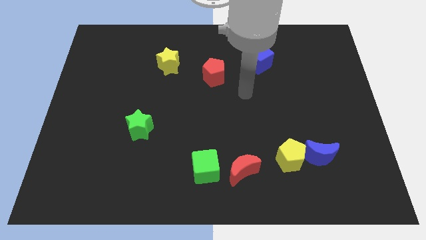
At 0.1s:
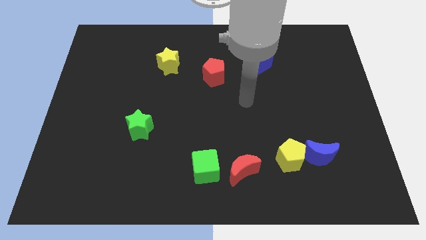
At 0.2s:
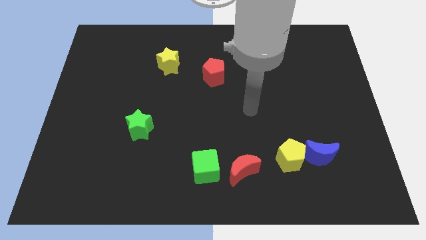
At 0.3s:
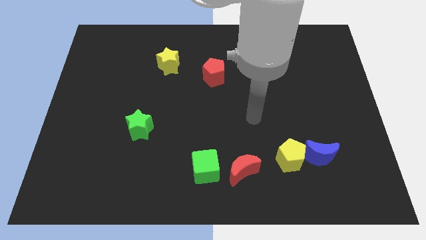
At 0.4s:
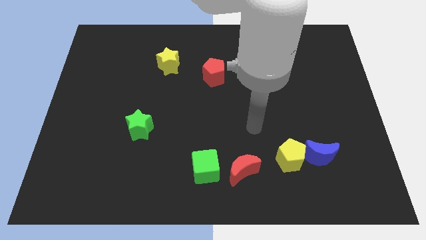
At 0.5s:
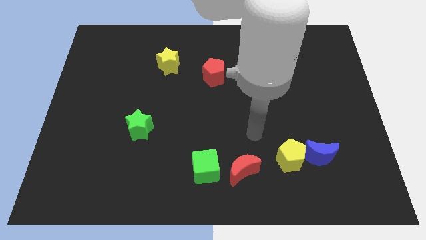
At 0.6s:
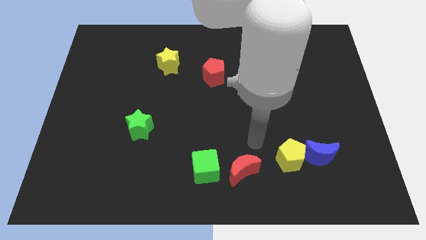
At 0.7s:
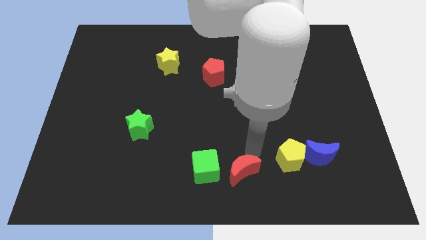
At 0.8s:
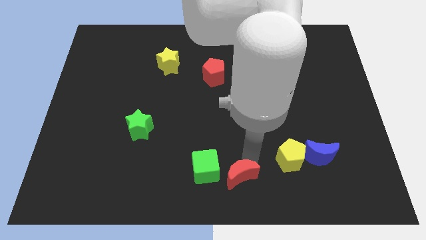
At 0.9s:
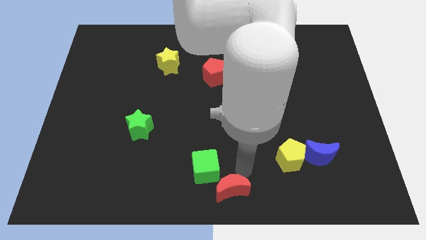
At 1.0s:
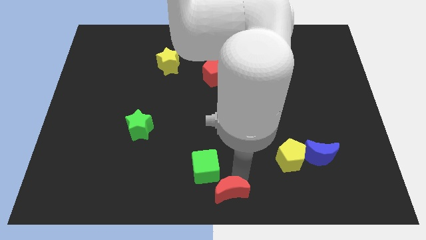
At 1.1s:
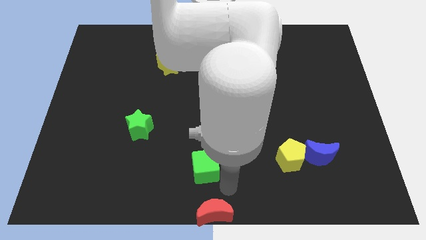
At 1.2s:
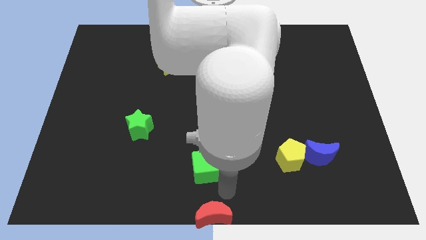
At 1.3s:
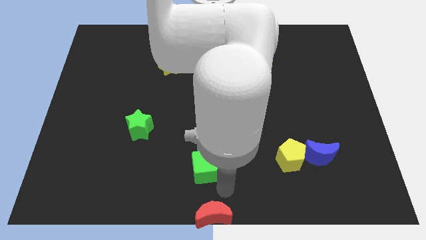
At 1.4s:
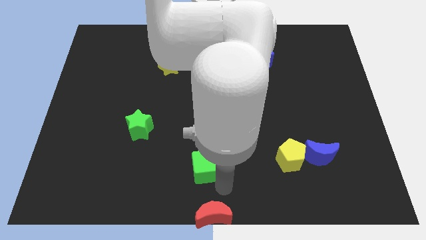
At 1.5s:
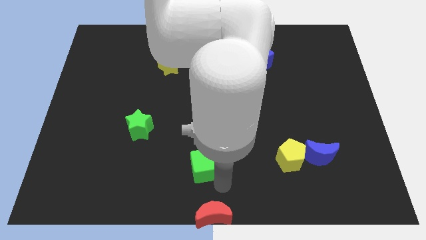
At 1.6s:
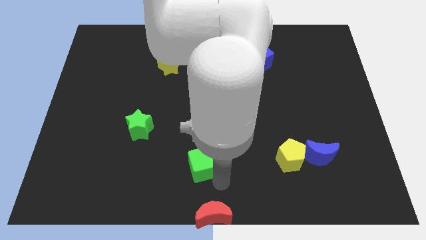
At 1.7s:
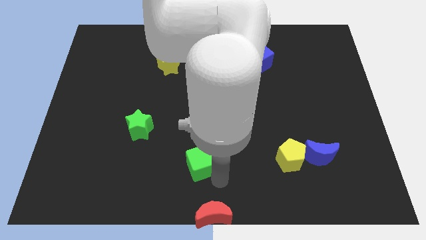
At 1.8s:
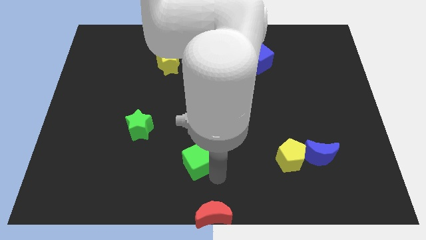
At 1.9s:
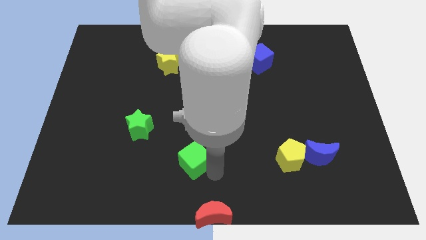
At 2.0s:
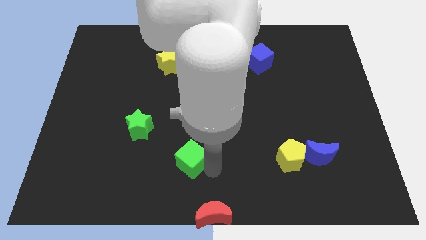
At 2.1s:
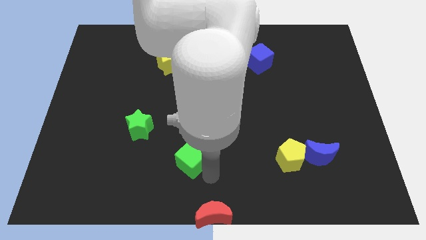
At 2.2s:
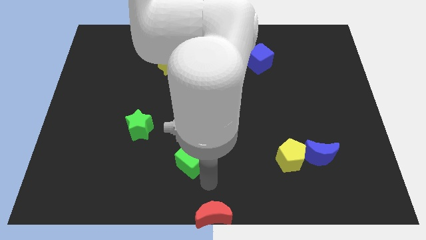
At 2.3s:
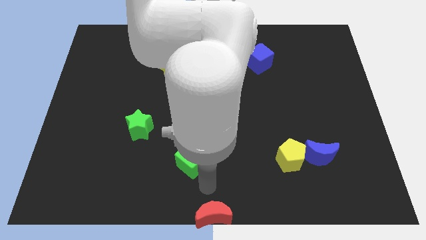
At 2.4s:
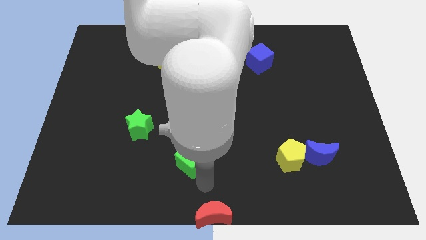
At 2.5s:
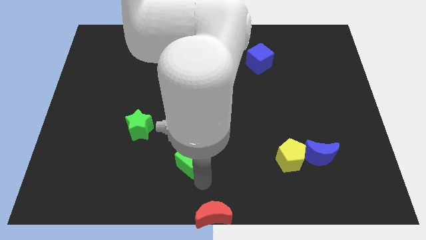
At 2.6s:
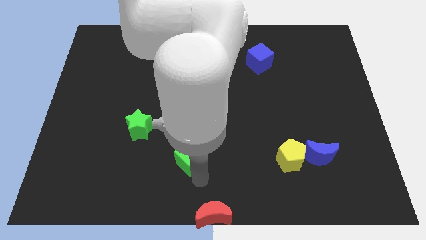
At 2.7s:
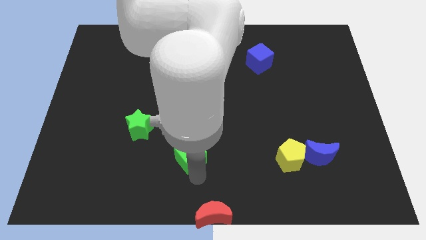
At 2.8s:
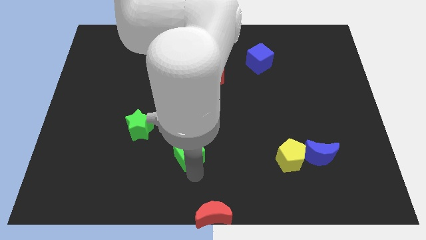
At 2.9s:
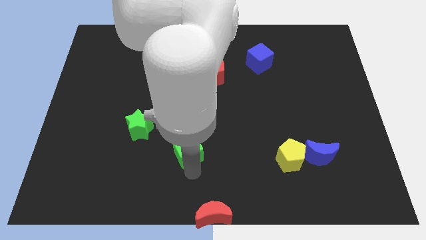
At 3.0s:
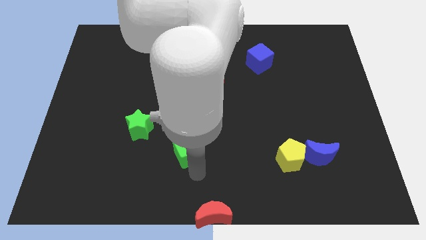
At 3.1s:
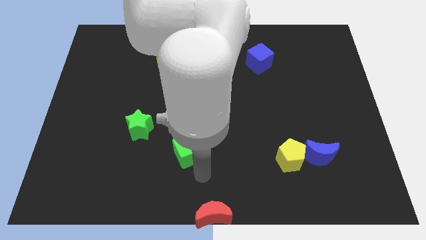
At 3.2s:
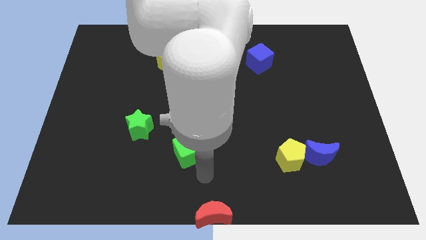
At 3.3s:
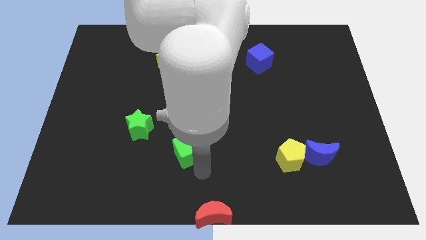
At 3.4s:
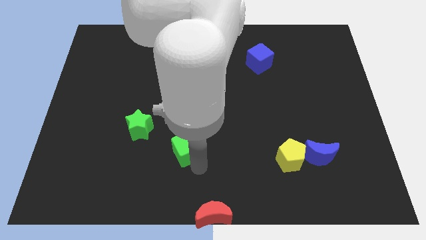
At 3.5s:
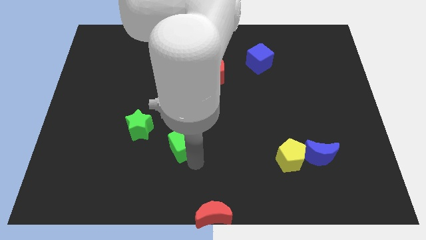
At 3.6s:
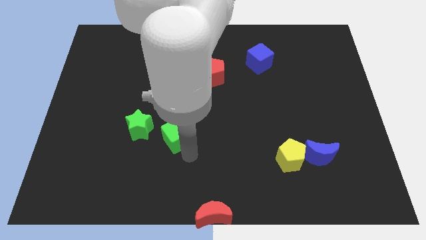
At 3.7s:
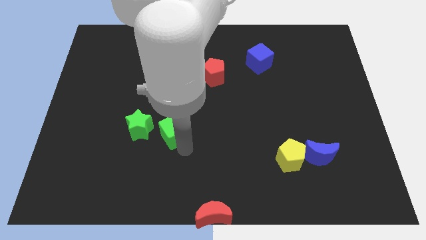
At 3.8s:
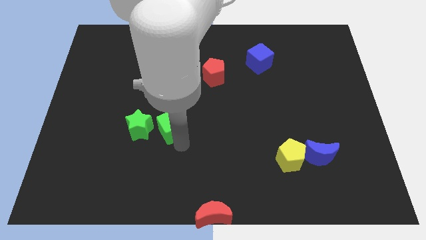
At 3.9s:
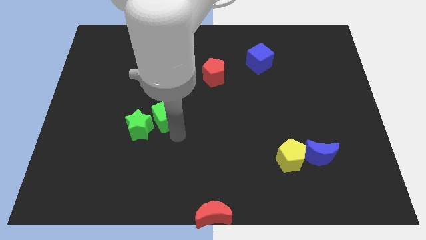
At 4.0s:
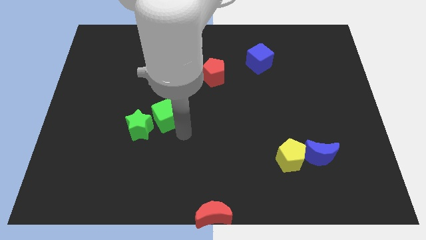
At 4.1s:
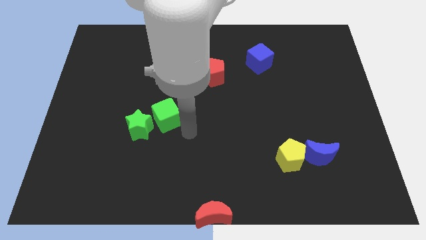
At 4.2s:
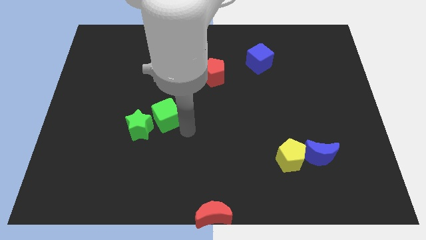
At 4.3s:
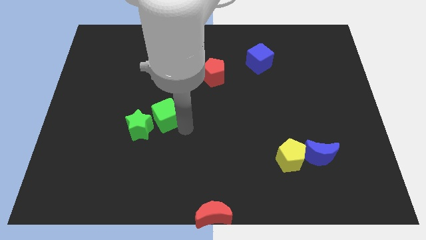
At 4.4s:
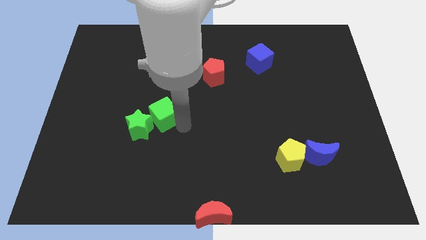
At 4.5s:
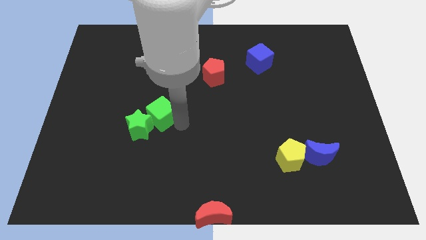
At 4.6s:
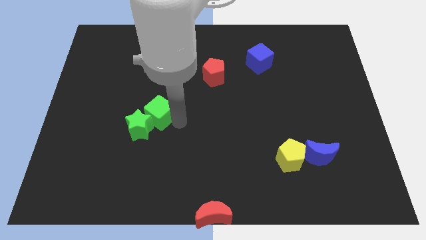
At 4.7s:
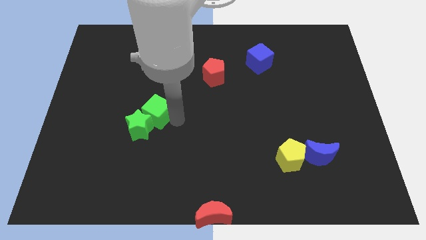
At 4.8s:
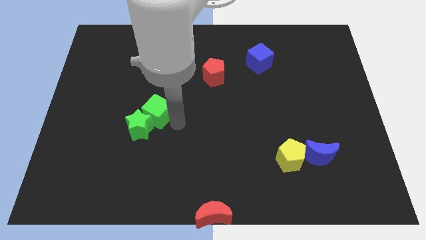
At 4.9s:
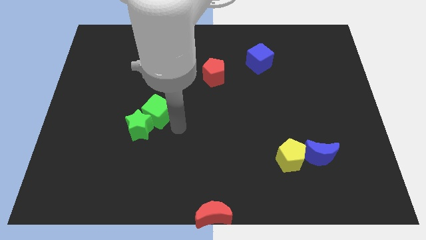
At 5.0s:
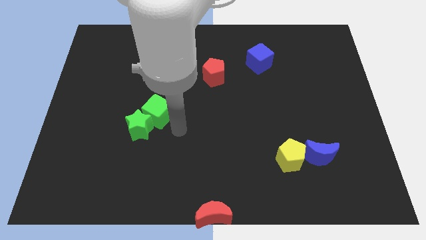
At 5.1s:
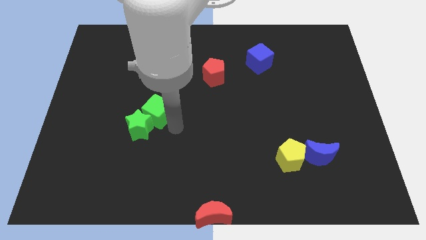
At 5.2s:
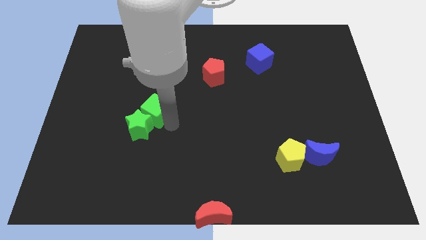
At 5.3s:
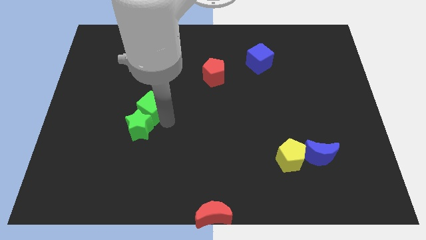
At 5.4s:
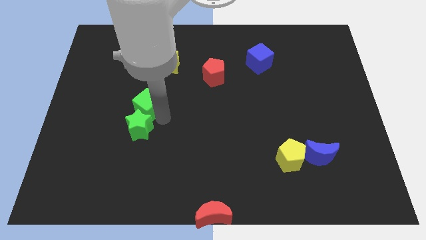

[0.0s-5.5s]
push the green cube up and then left

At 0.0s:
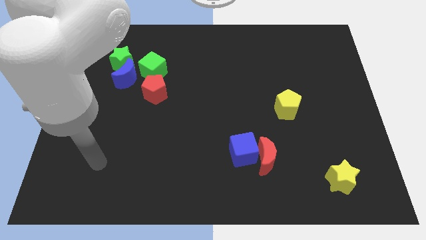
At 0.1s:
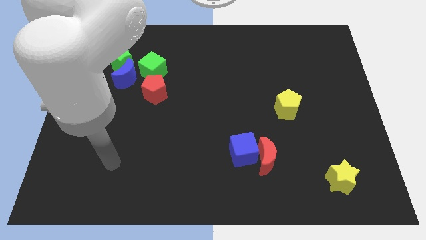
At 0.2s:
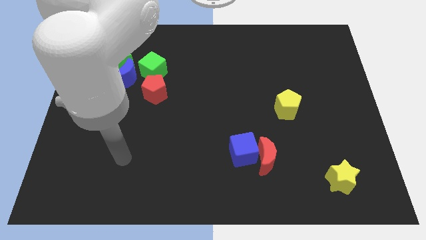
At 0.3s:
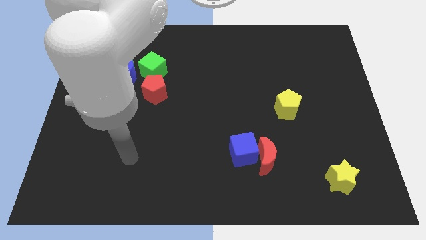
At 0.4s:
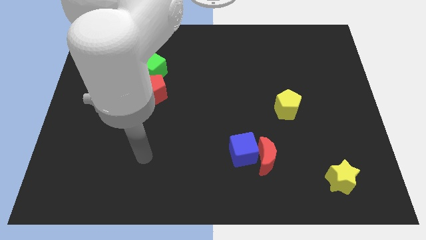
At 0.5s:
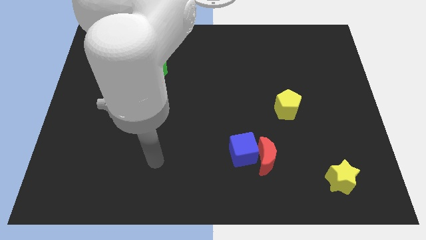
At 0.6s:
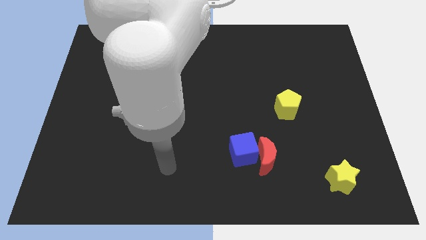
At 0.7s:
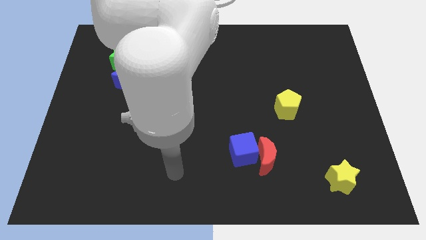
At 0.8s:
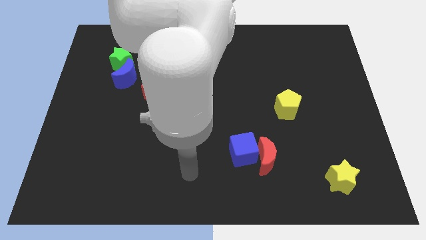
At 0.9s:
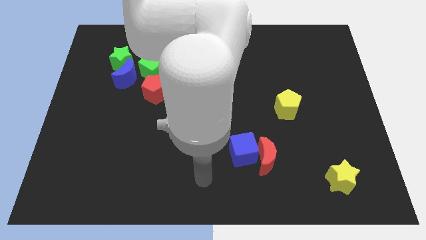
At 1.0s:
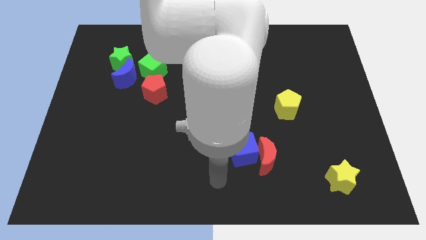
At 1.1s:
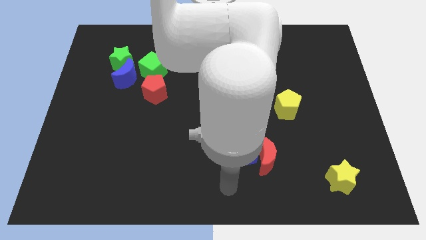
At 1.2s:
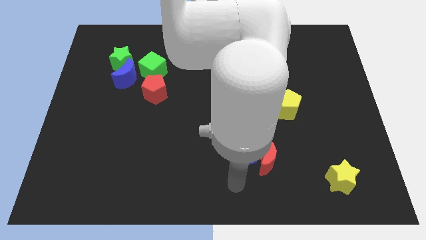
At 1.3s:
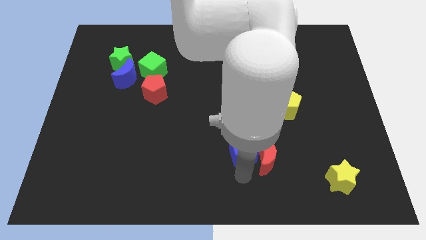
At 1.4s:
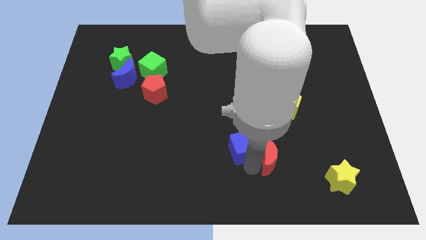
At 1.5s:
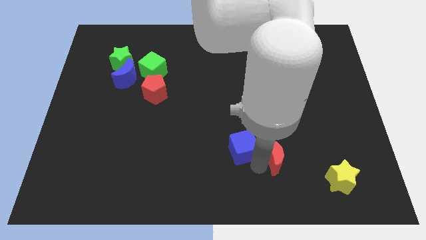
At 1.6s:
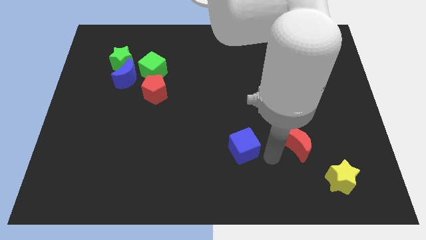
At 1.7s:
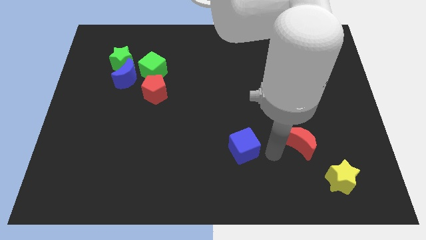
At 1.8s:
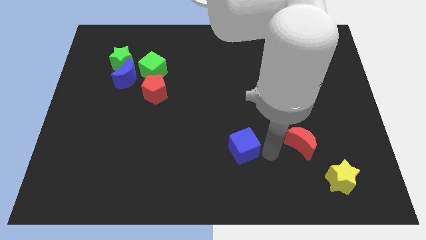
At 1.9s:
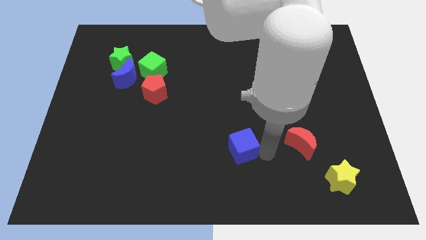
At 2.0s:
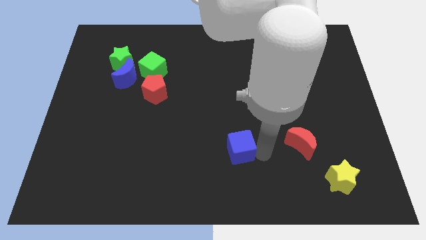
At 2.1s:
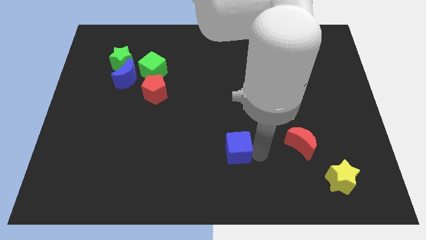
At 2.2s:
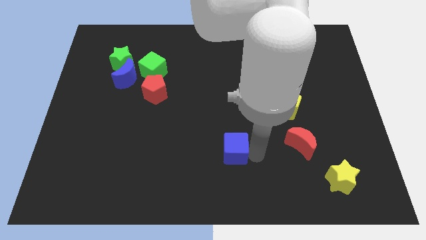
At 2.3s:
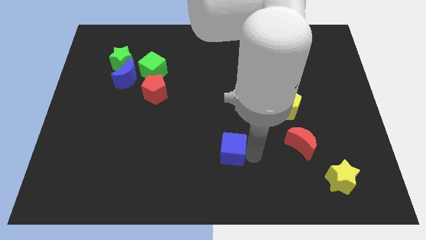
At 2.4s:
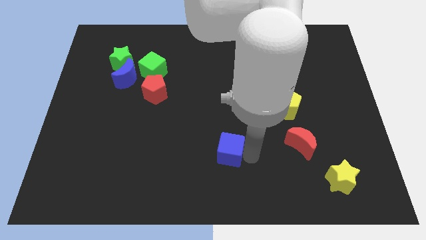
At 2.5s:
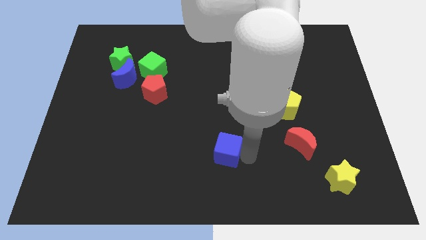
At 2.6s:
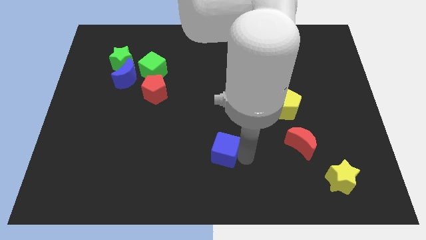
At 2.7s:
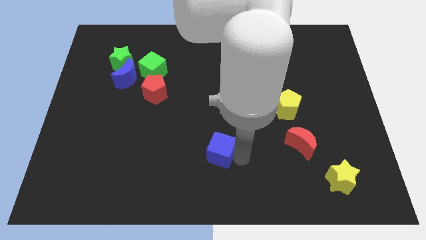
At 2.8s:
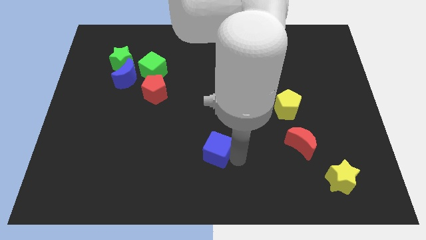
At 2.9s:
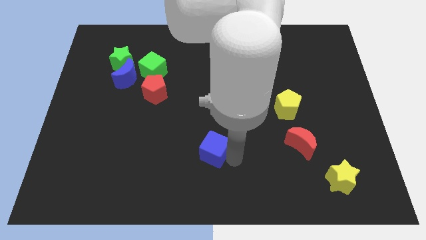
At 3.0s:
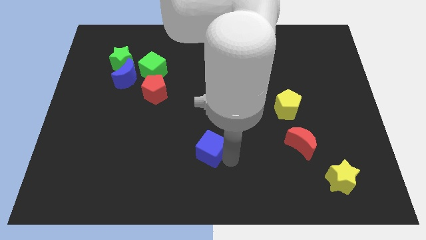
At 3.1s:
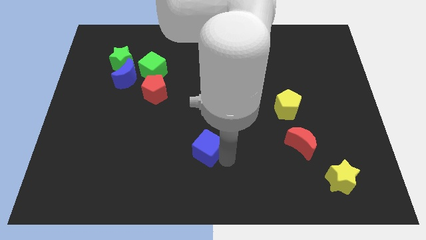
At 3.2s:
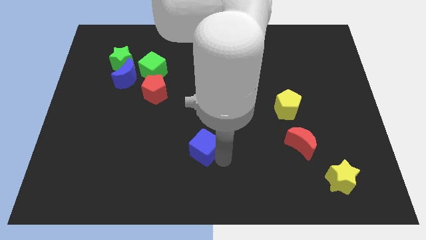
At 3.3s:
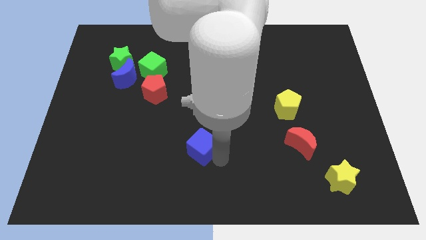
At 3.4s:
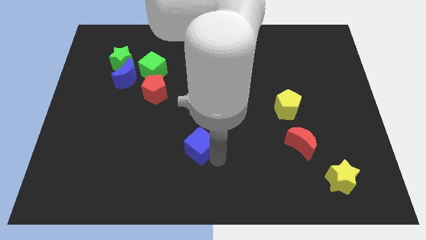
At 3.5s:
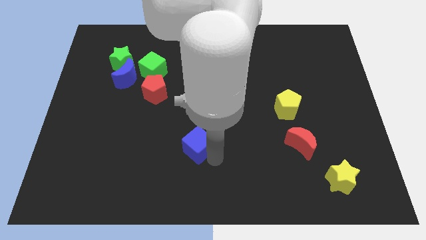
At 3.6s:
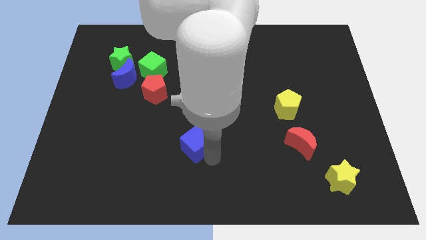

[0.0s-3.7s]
move the blue cube up and then to the left a bit
